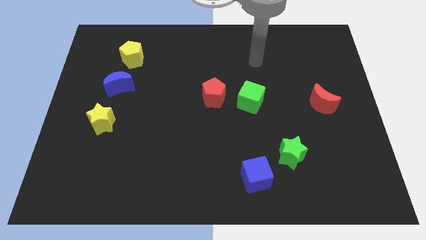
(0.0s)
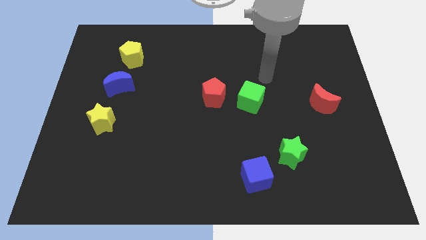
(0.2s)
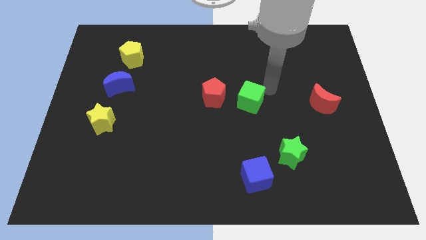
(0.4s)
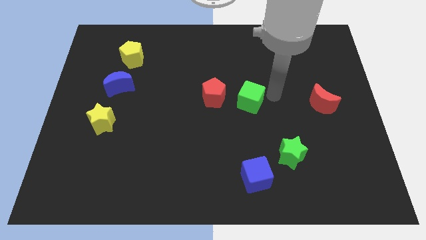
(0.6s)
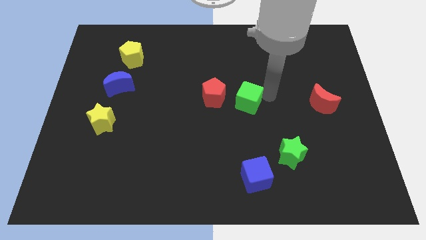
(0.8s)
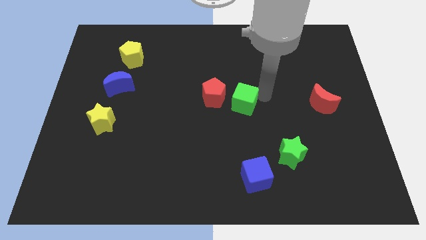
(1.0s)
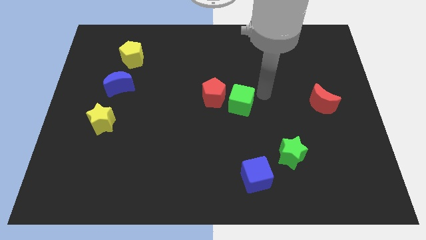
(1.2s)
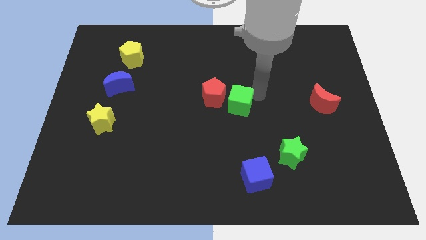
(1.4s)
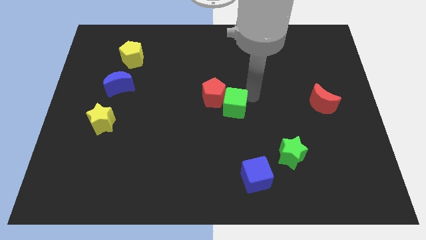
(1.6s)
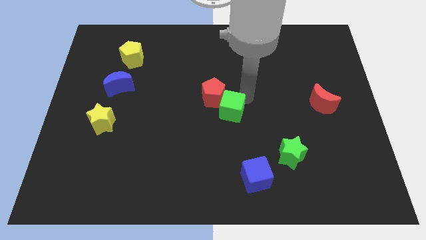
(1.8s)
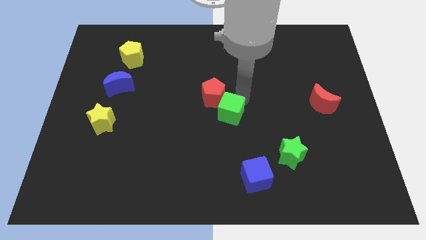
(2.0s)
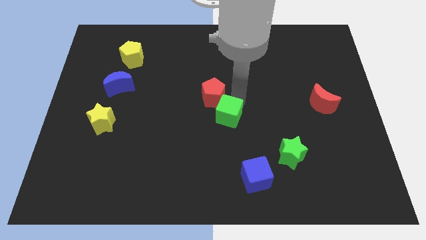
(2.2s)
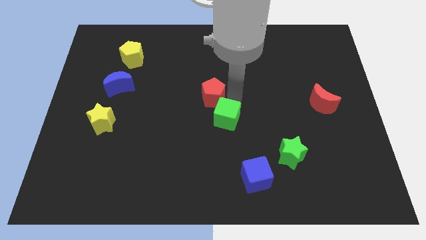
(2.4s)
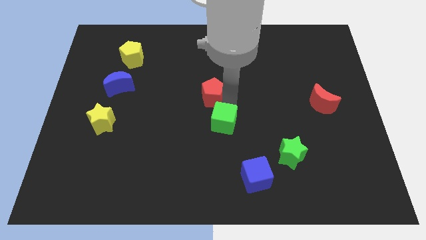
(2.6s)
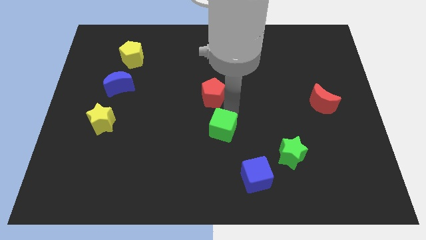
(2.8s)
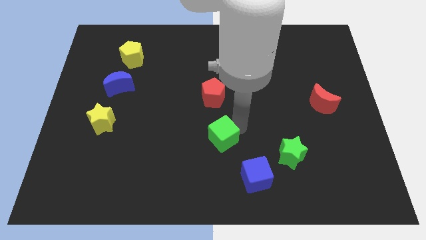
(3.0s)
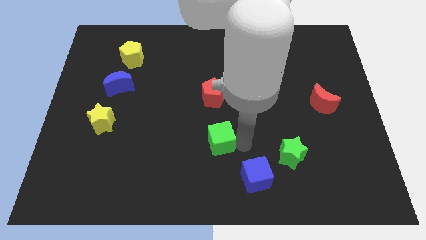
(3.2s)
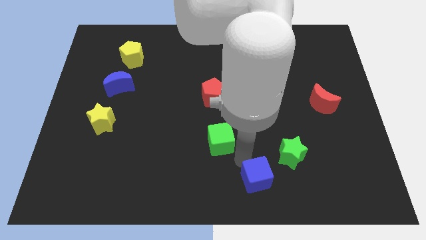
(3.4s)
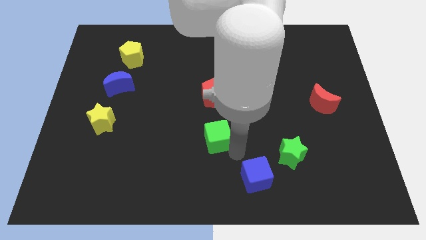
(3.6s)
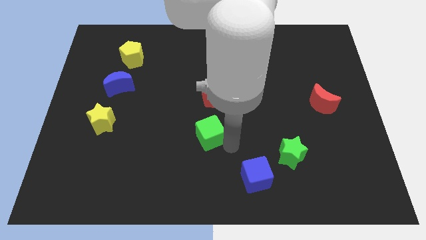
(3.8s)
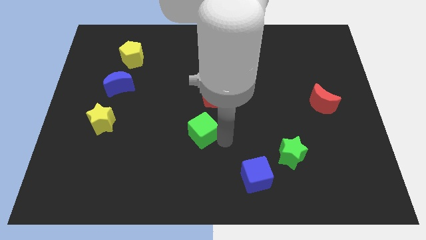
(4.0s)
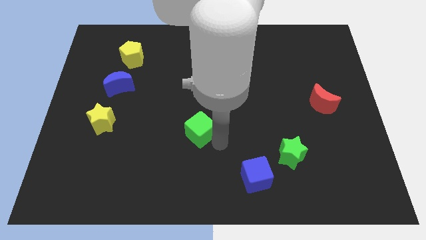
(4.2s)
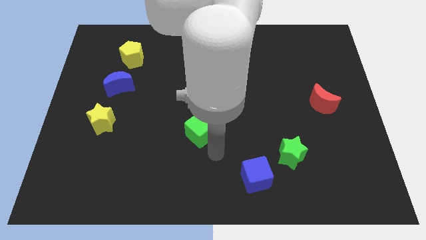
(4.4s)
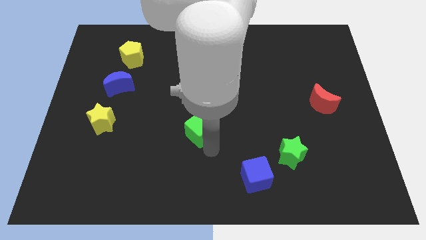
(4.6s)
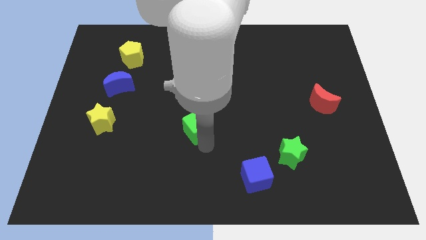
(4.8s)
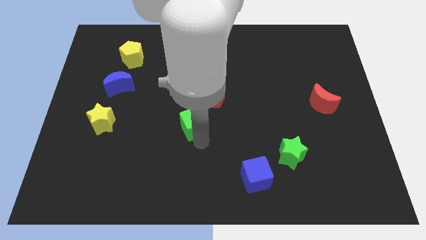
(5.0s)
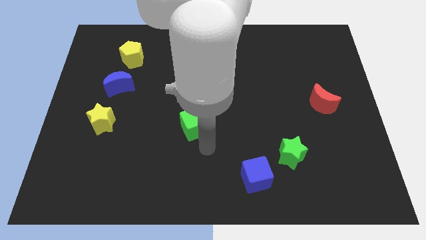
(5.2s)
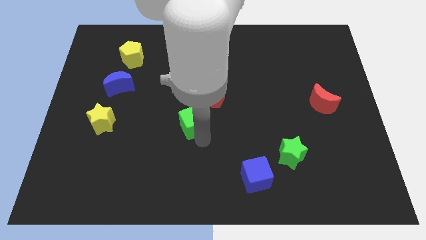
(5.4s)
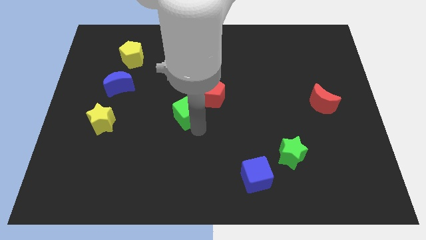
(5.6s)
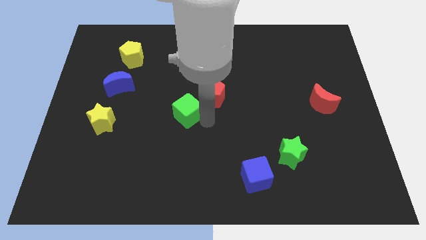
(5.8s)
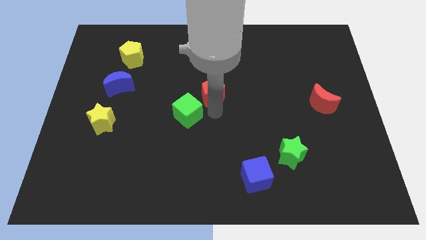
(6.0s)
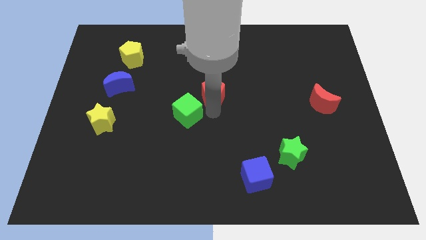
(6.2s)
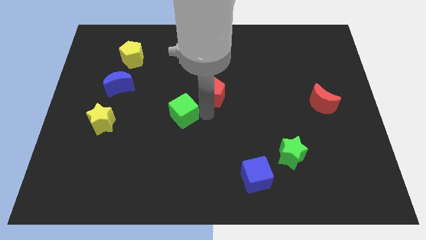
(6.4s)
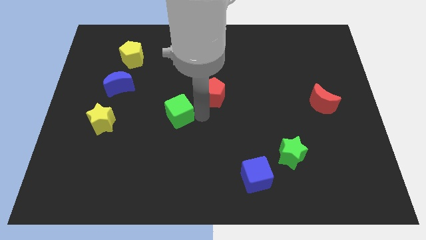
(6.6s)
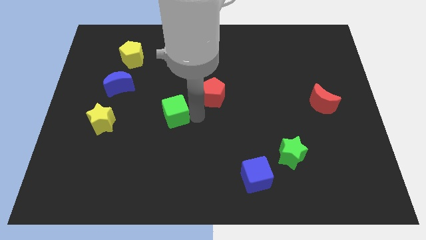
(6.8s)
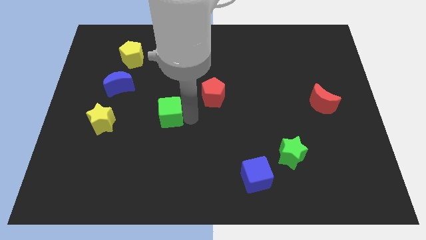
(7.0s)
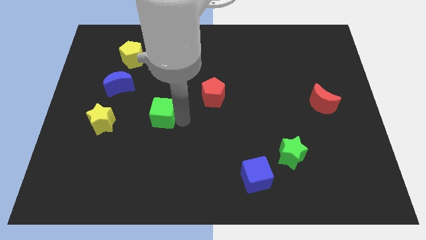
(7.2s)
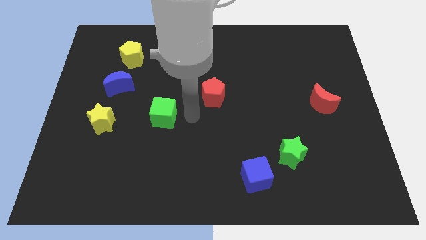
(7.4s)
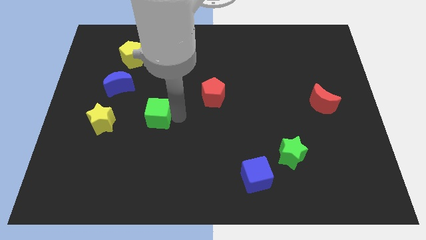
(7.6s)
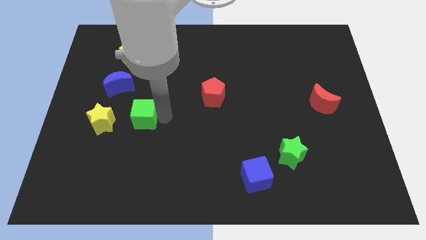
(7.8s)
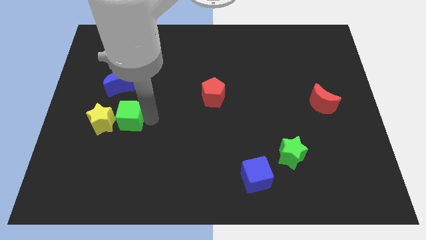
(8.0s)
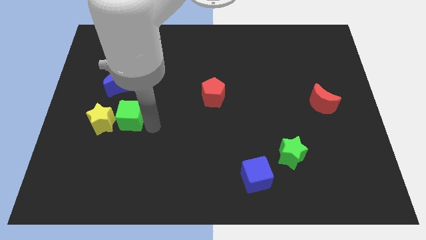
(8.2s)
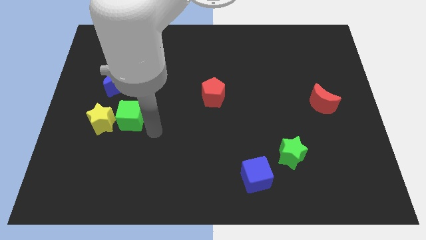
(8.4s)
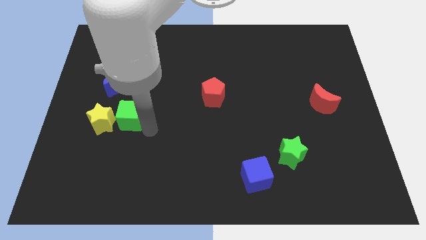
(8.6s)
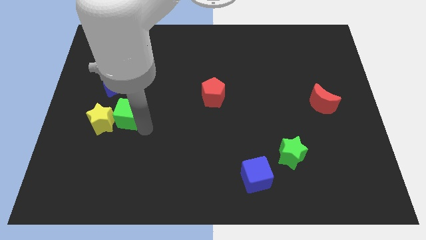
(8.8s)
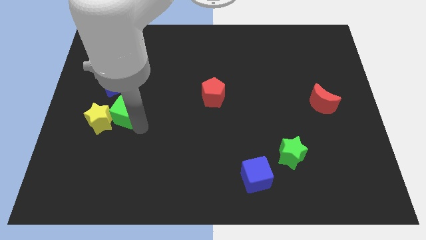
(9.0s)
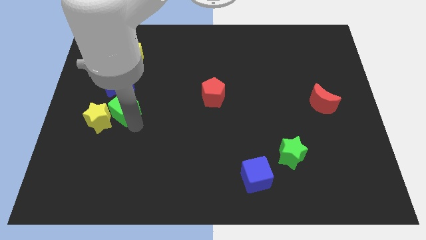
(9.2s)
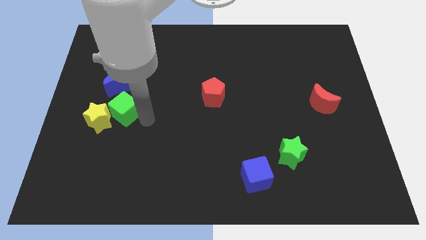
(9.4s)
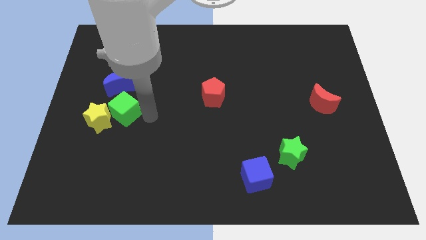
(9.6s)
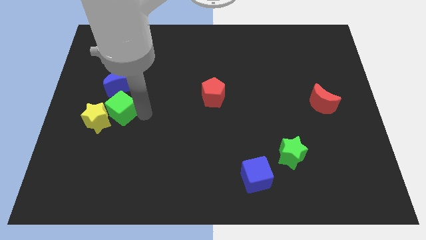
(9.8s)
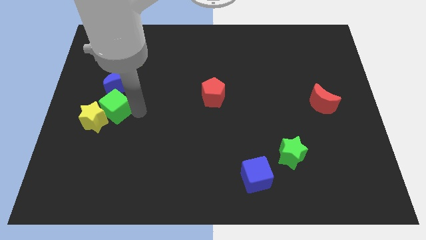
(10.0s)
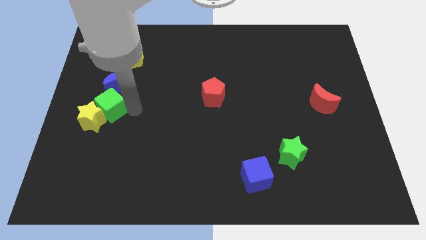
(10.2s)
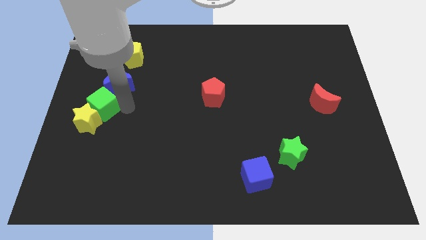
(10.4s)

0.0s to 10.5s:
move the green cube to the left side

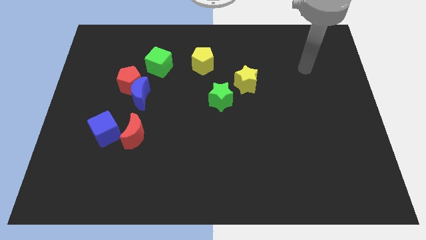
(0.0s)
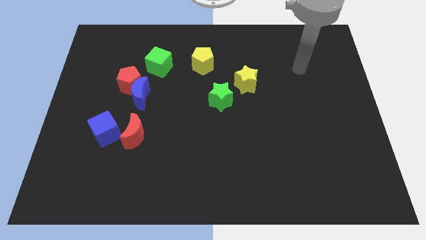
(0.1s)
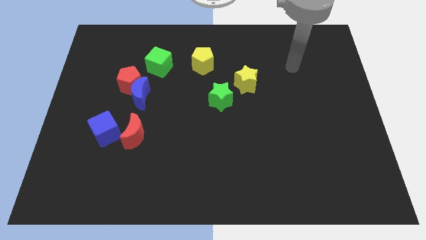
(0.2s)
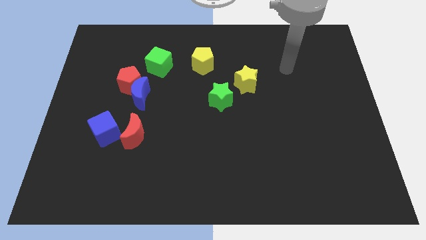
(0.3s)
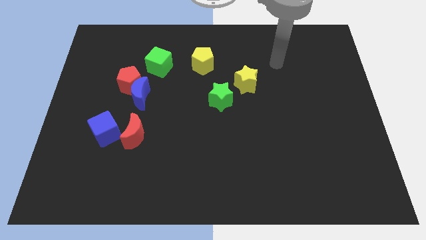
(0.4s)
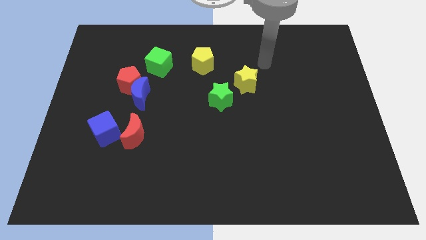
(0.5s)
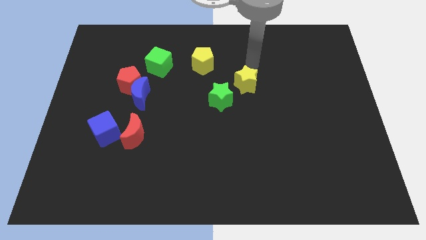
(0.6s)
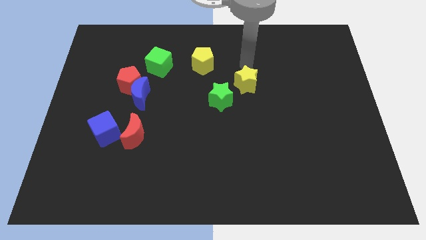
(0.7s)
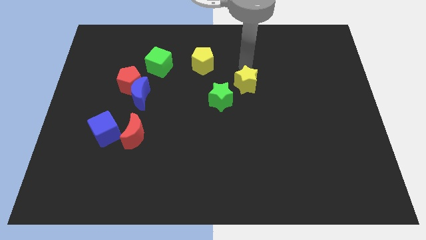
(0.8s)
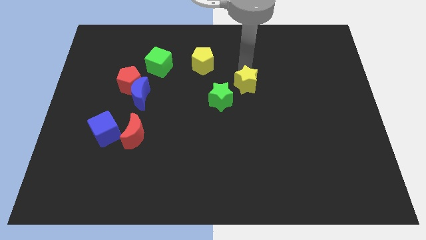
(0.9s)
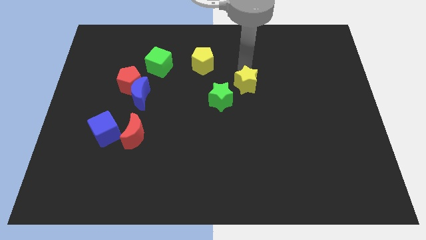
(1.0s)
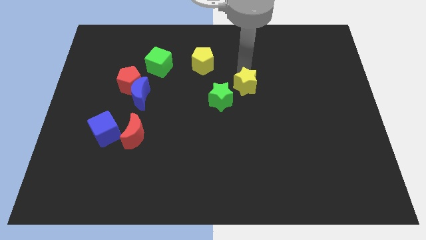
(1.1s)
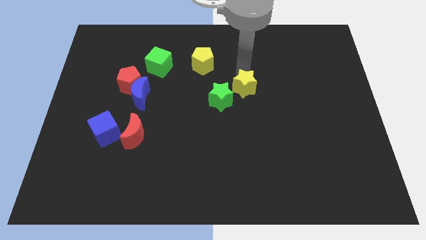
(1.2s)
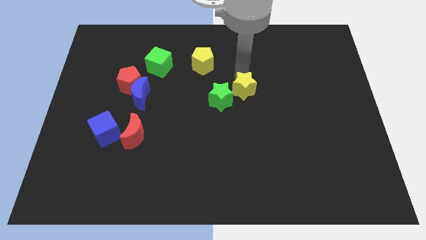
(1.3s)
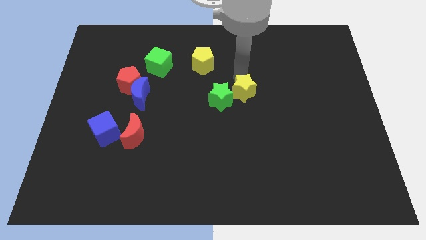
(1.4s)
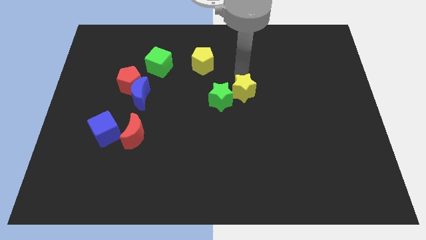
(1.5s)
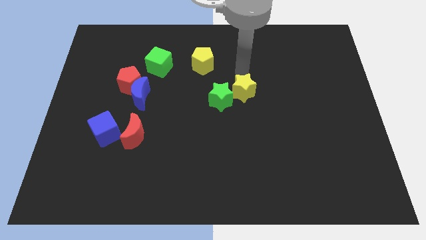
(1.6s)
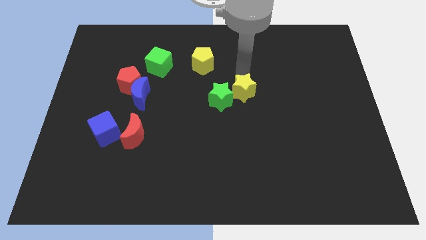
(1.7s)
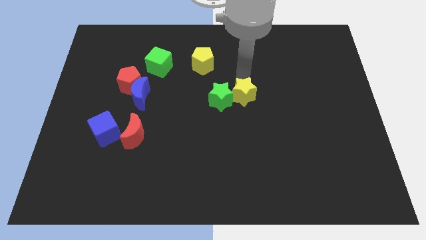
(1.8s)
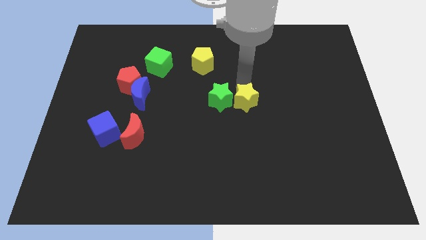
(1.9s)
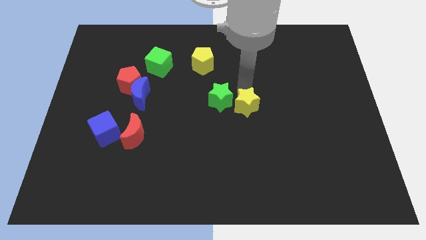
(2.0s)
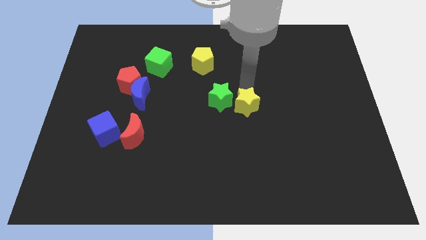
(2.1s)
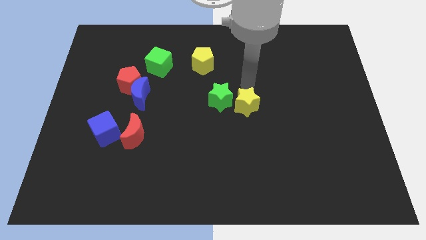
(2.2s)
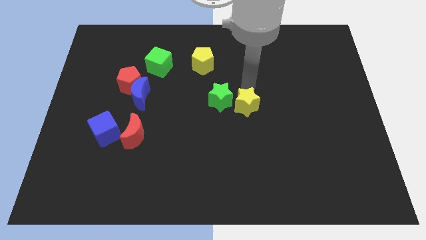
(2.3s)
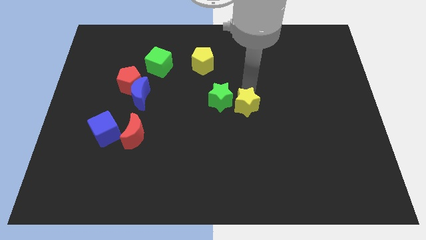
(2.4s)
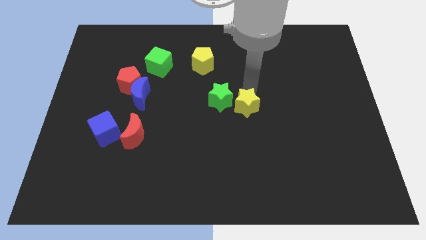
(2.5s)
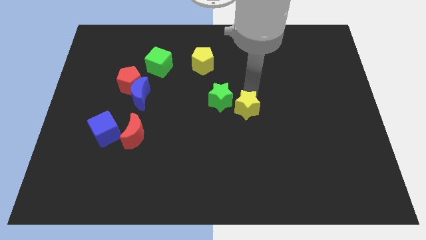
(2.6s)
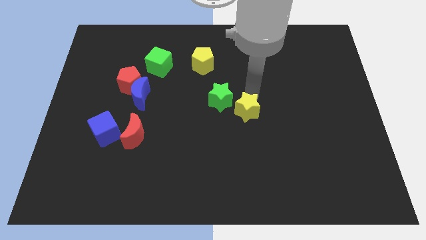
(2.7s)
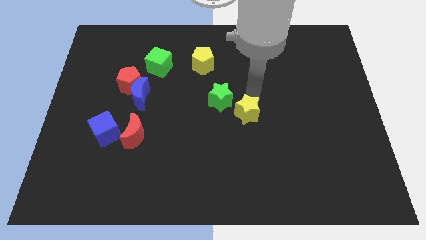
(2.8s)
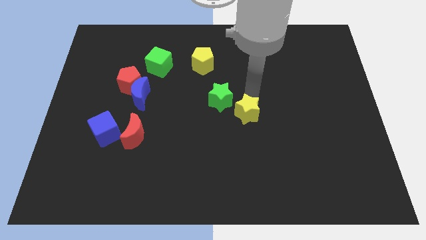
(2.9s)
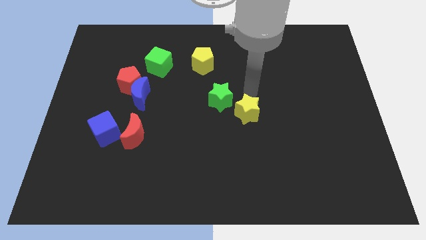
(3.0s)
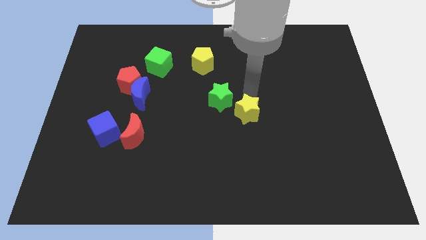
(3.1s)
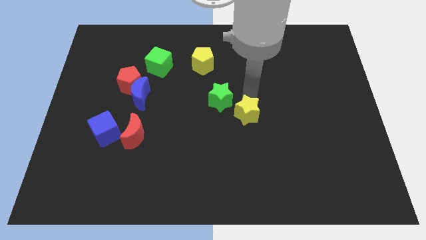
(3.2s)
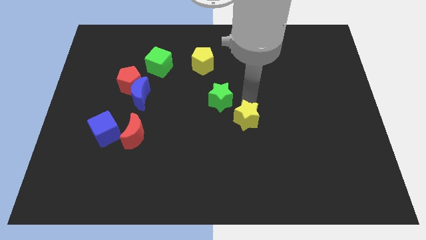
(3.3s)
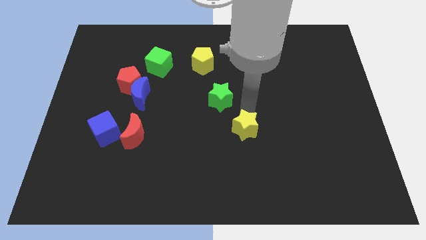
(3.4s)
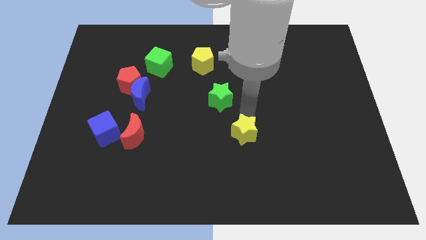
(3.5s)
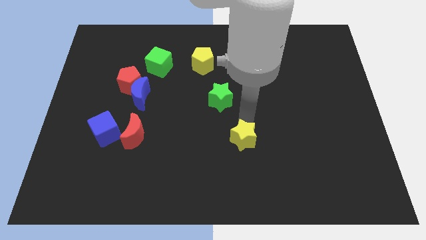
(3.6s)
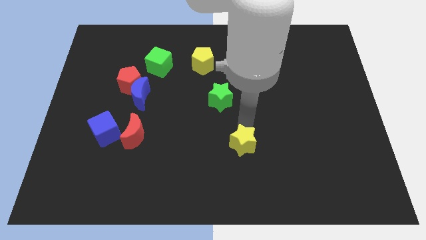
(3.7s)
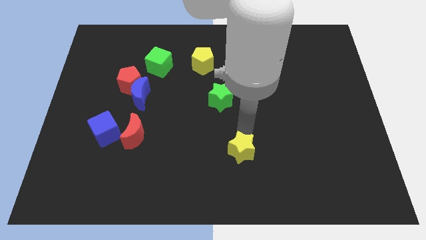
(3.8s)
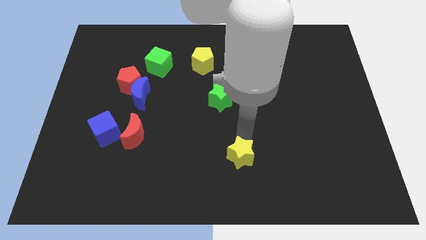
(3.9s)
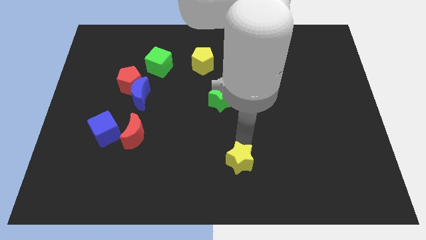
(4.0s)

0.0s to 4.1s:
slide the yellow star to the bottom
